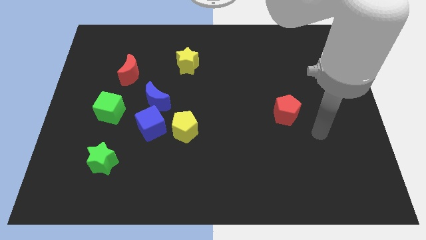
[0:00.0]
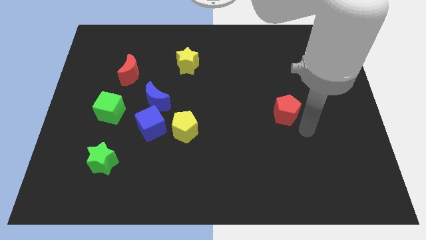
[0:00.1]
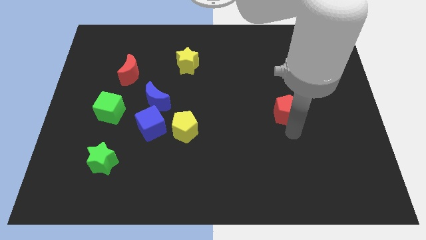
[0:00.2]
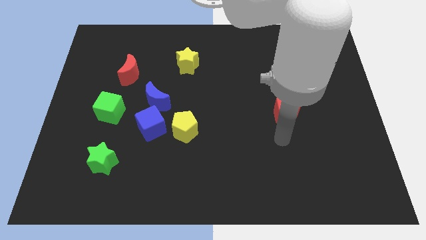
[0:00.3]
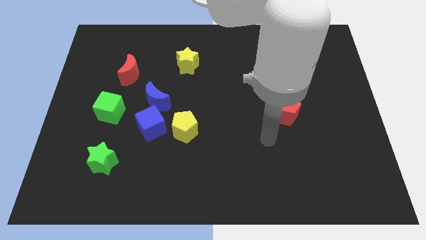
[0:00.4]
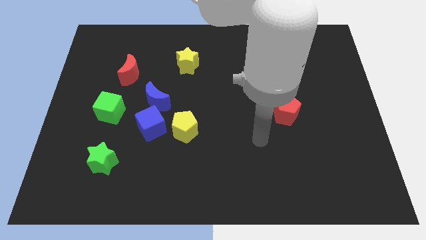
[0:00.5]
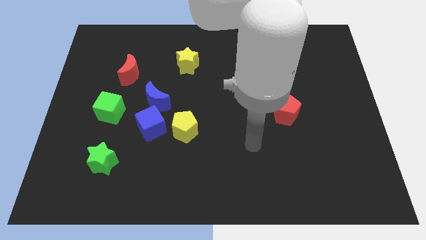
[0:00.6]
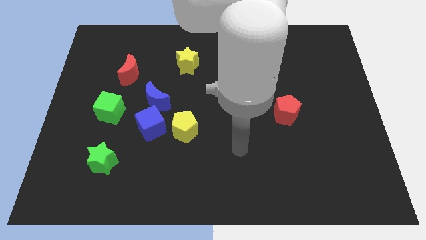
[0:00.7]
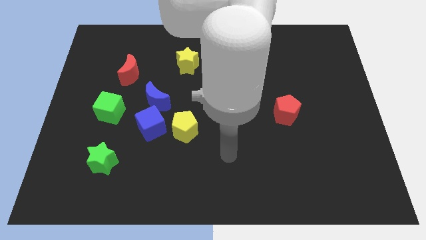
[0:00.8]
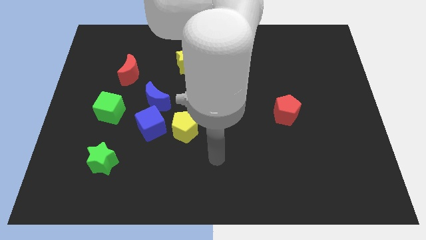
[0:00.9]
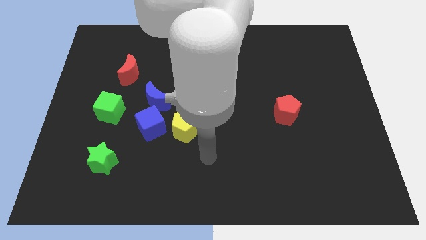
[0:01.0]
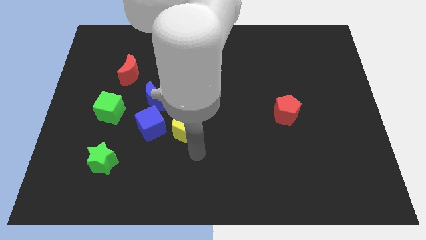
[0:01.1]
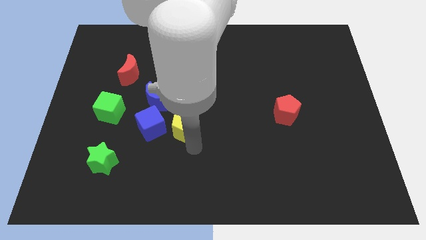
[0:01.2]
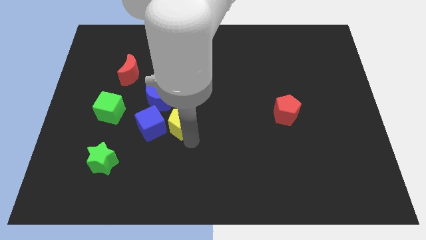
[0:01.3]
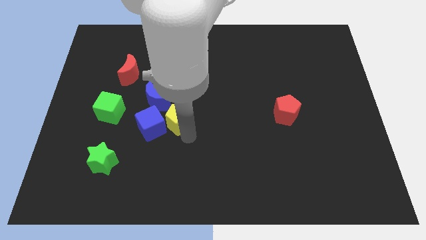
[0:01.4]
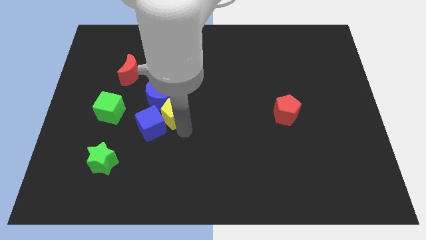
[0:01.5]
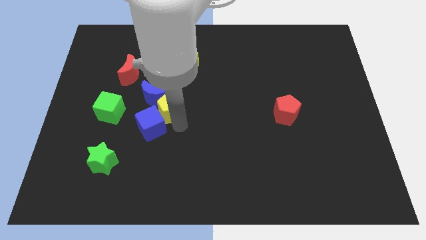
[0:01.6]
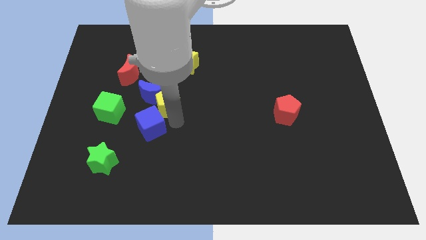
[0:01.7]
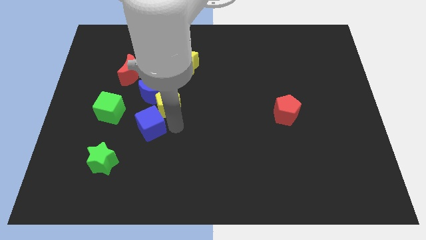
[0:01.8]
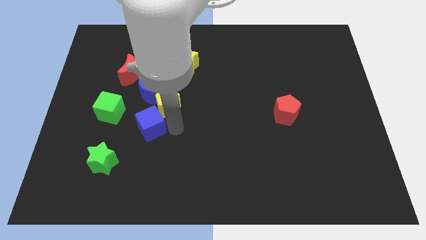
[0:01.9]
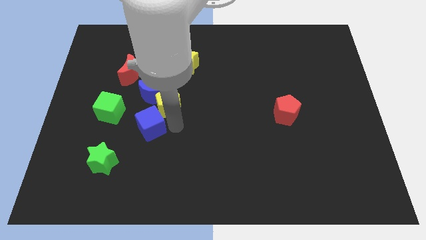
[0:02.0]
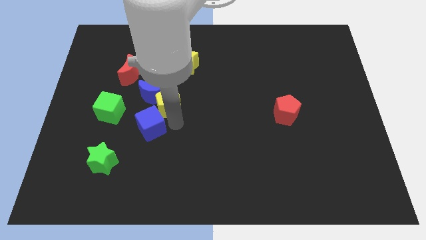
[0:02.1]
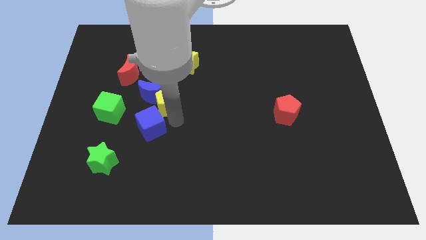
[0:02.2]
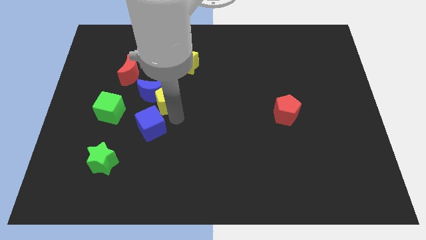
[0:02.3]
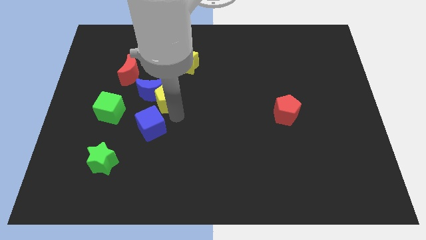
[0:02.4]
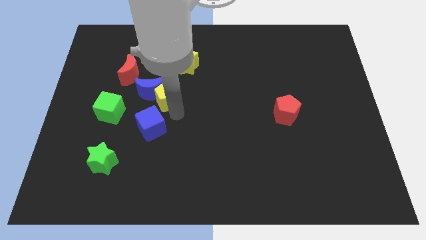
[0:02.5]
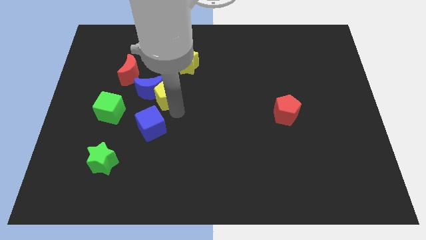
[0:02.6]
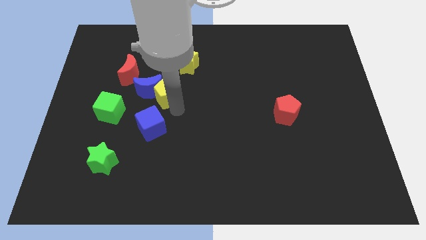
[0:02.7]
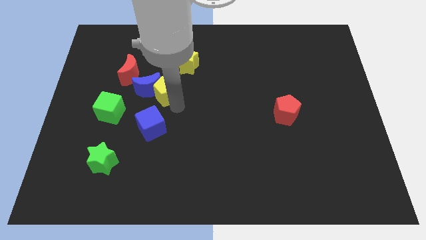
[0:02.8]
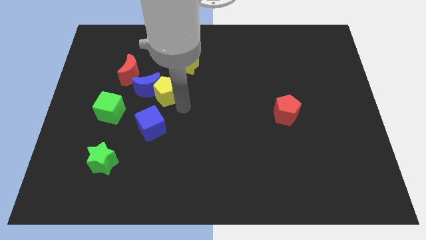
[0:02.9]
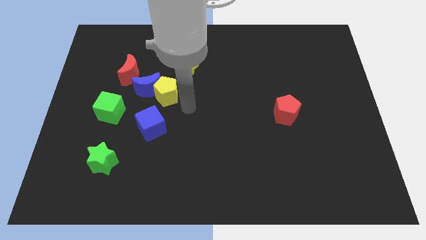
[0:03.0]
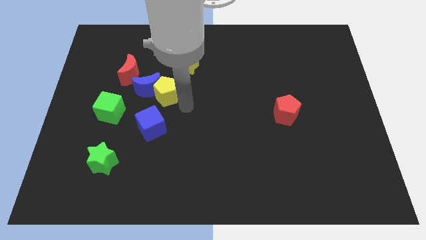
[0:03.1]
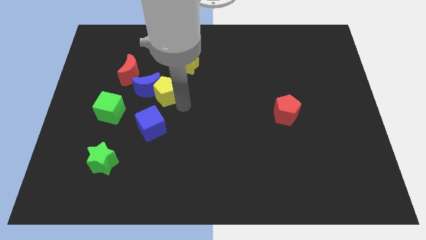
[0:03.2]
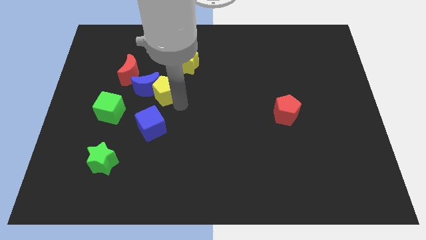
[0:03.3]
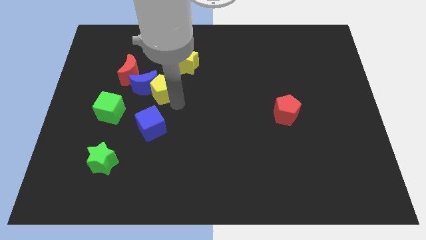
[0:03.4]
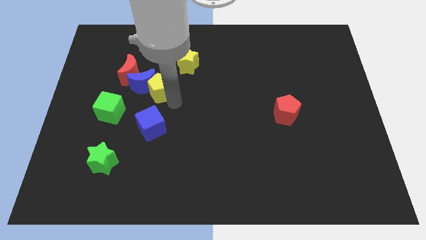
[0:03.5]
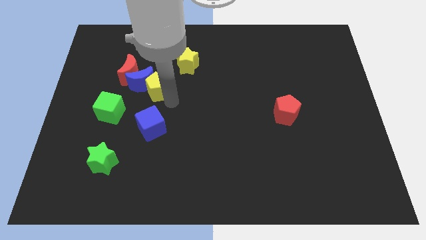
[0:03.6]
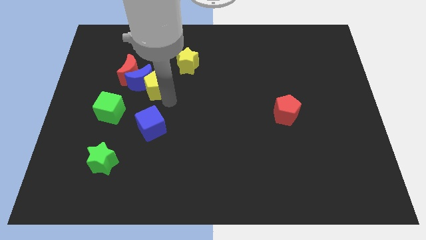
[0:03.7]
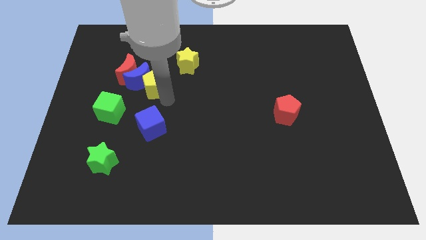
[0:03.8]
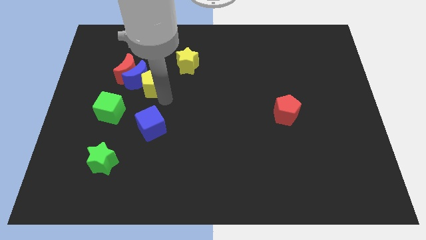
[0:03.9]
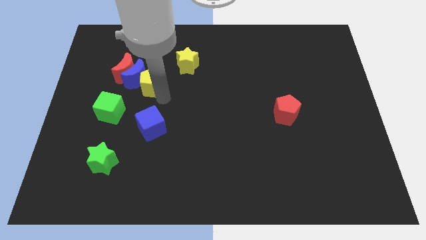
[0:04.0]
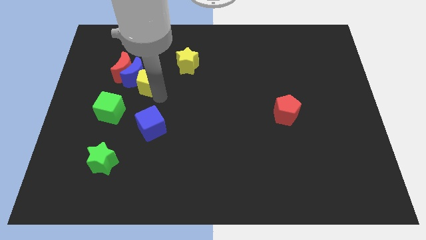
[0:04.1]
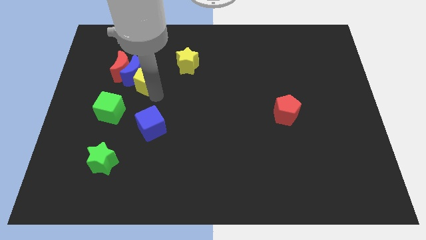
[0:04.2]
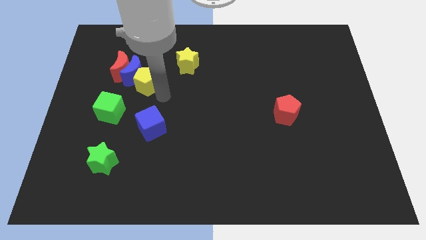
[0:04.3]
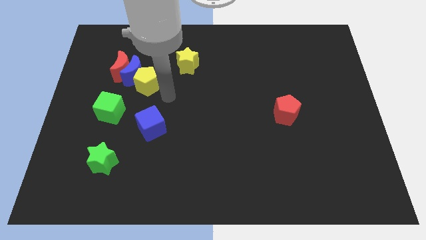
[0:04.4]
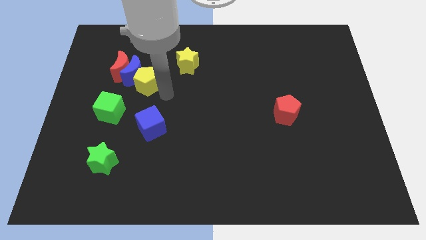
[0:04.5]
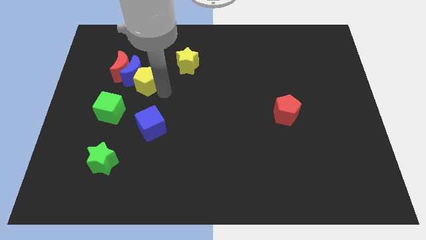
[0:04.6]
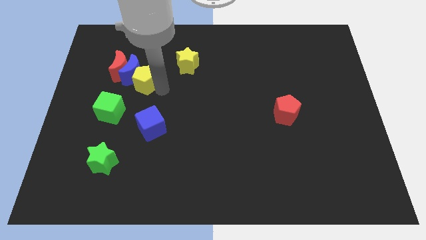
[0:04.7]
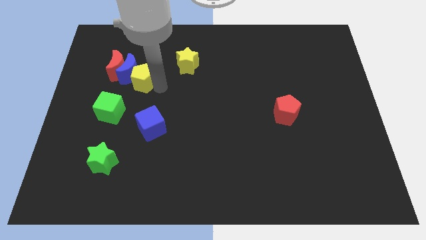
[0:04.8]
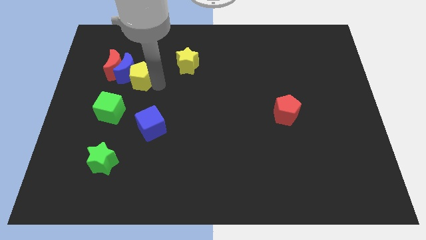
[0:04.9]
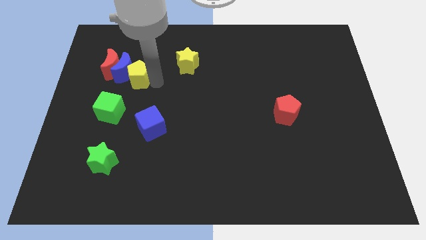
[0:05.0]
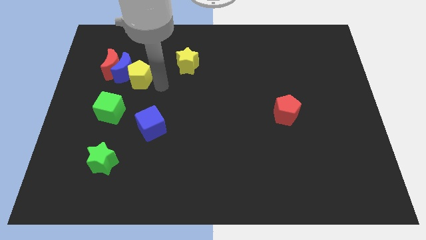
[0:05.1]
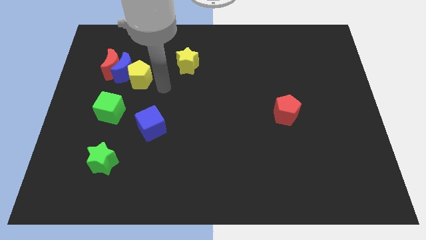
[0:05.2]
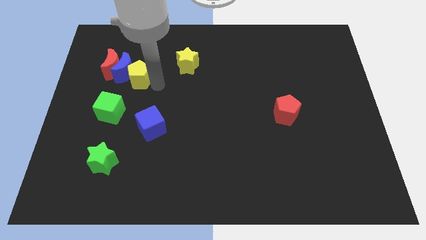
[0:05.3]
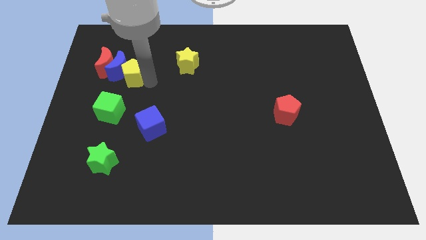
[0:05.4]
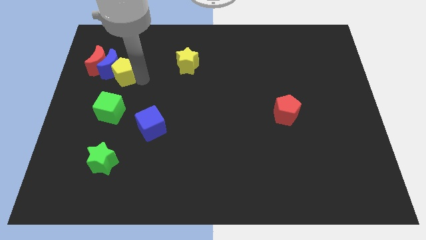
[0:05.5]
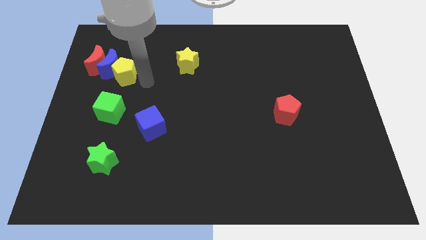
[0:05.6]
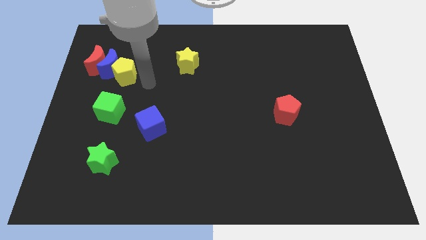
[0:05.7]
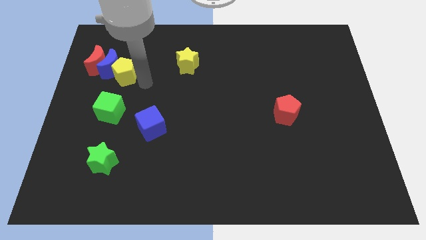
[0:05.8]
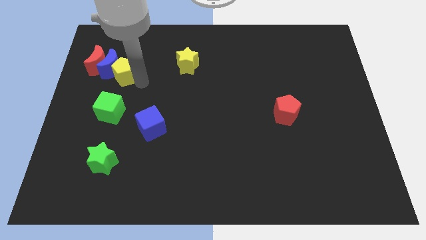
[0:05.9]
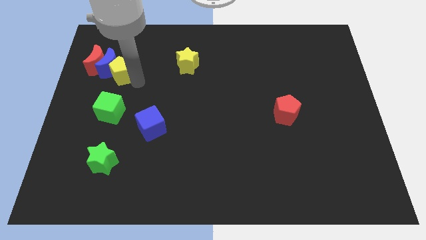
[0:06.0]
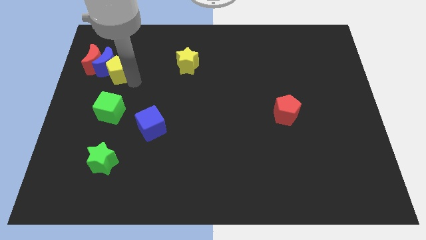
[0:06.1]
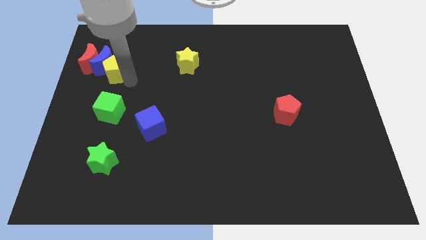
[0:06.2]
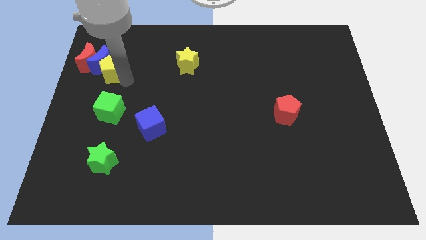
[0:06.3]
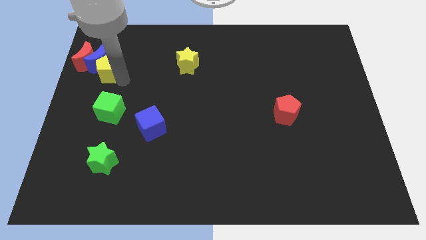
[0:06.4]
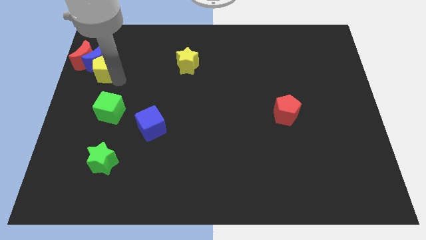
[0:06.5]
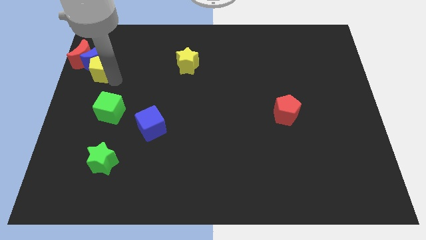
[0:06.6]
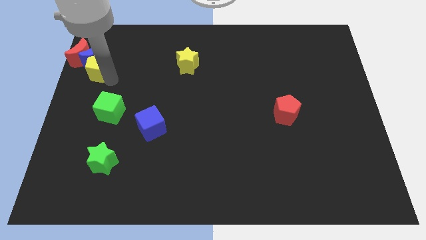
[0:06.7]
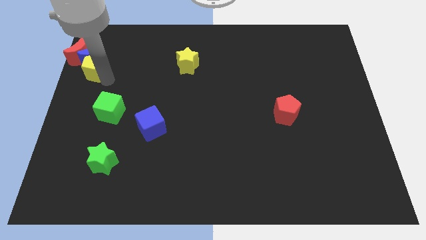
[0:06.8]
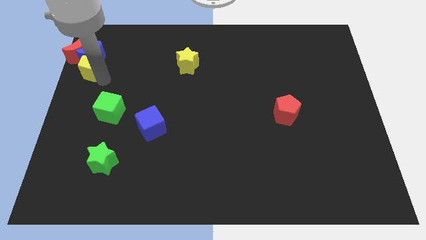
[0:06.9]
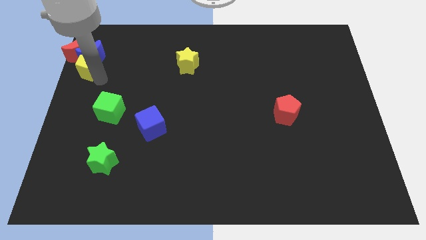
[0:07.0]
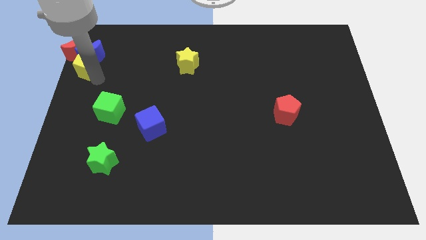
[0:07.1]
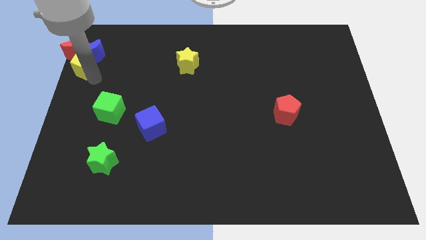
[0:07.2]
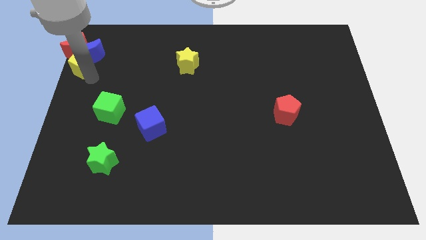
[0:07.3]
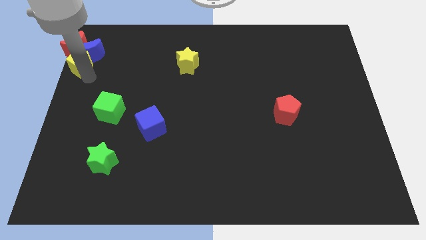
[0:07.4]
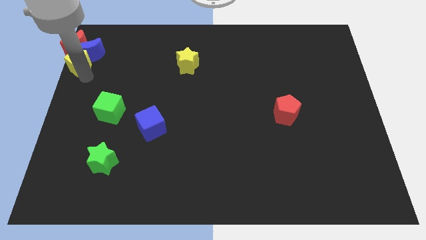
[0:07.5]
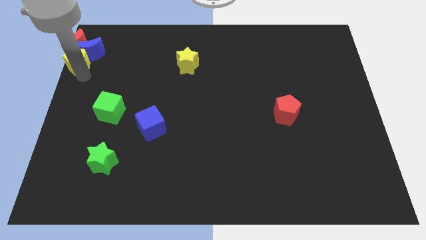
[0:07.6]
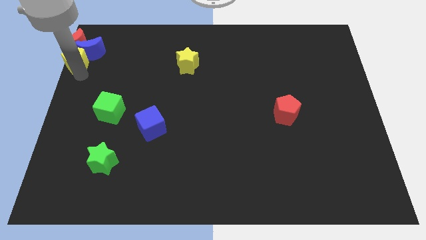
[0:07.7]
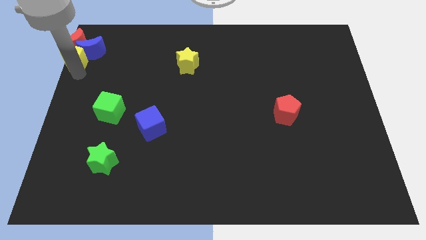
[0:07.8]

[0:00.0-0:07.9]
slide the yellow pentagon towards the red moon
